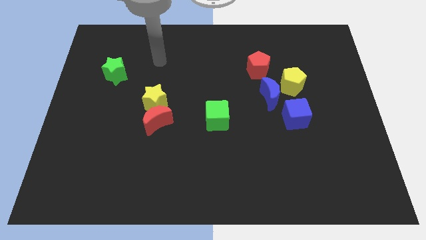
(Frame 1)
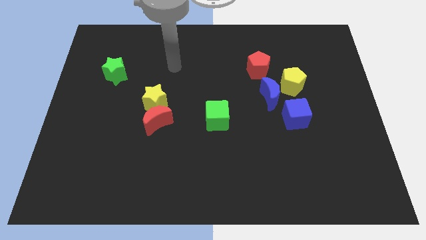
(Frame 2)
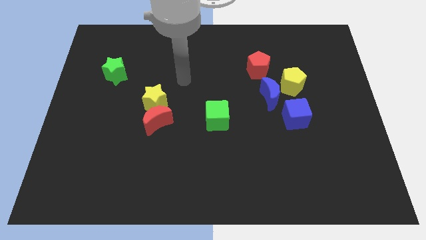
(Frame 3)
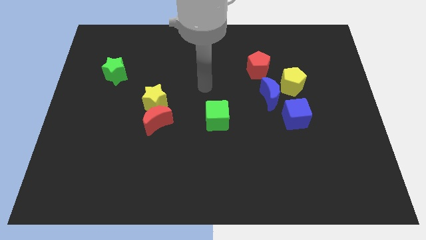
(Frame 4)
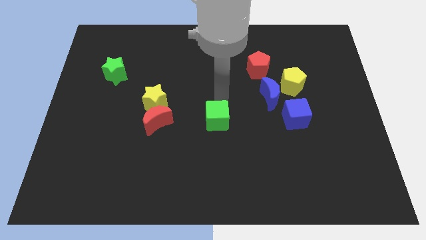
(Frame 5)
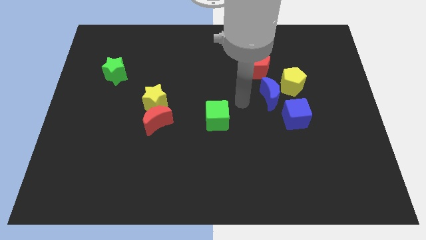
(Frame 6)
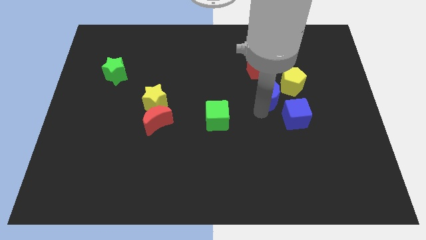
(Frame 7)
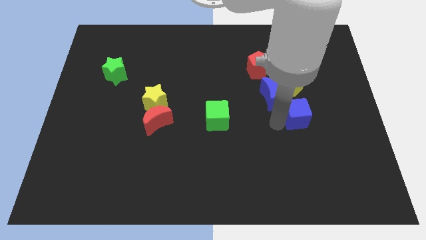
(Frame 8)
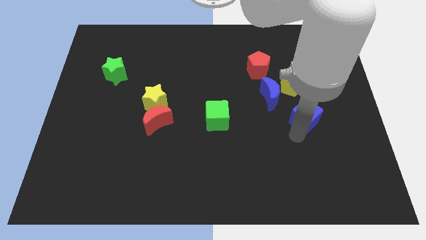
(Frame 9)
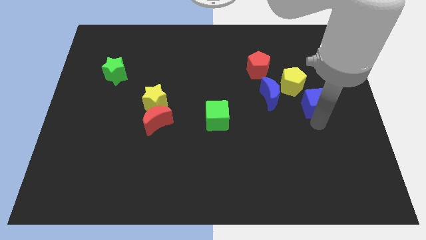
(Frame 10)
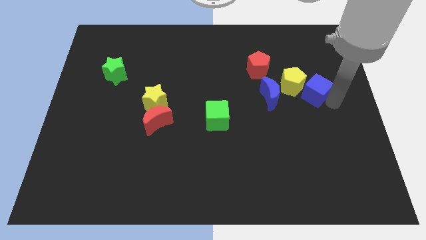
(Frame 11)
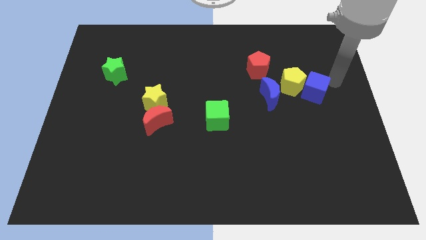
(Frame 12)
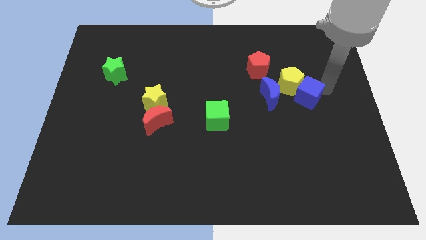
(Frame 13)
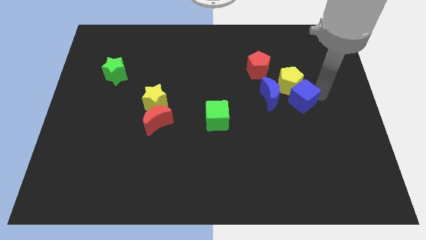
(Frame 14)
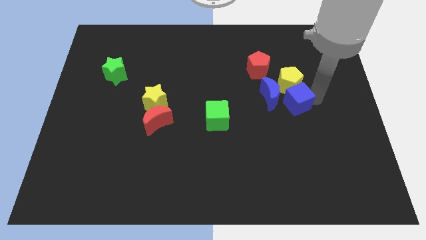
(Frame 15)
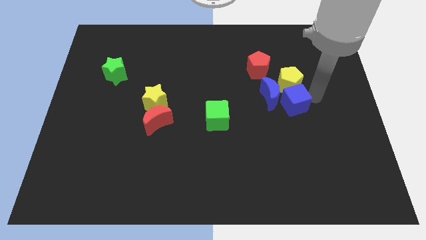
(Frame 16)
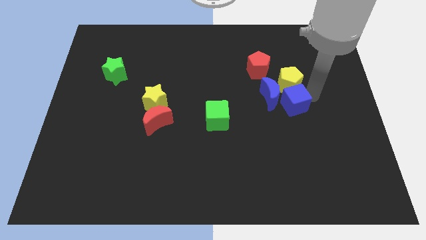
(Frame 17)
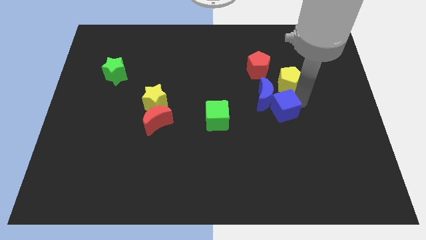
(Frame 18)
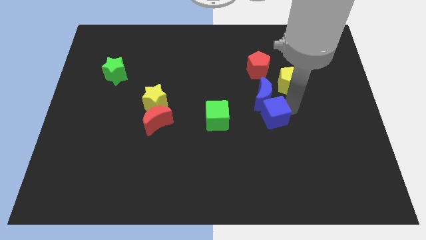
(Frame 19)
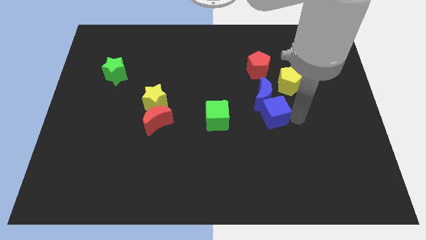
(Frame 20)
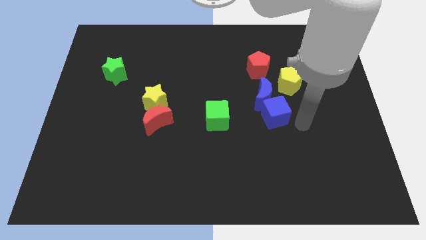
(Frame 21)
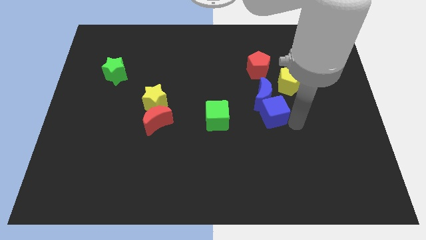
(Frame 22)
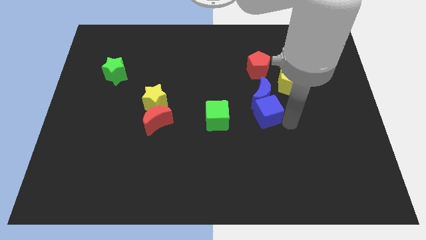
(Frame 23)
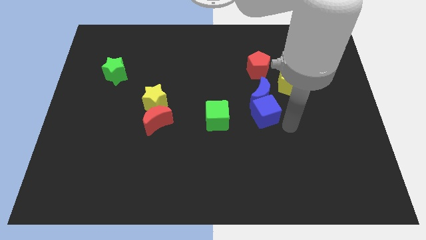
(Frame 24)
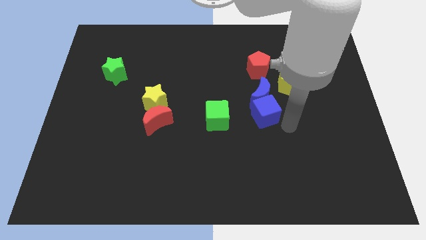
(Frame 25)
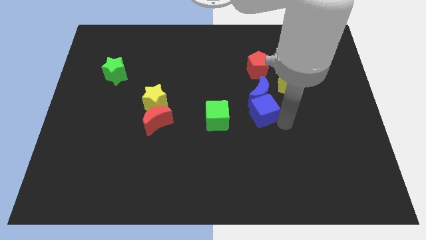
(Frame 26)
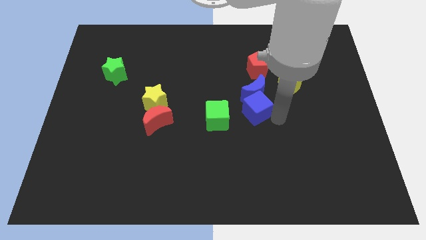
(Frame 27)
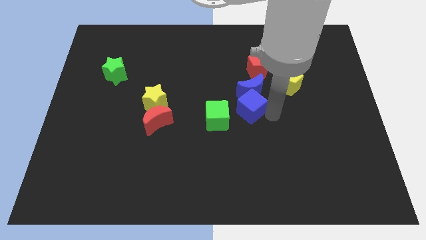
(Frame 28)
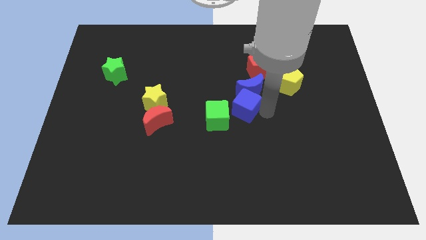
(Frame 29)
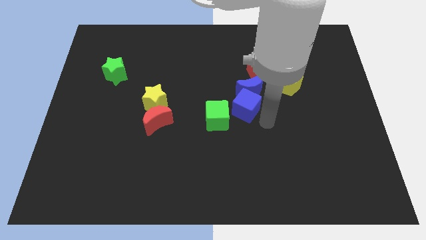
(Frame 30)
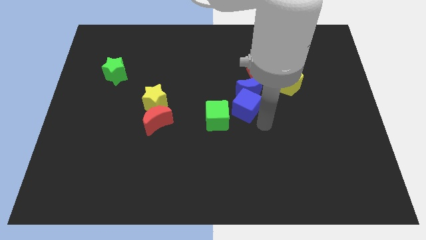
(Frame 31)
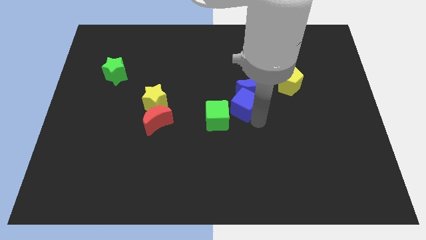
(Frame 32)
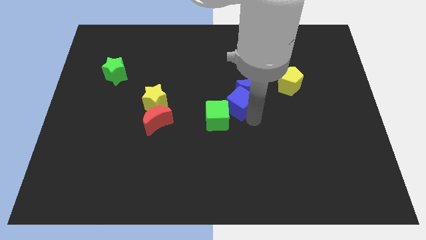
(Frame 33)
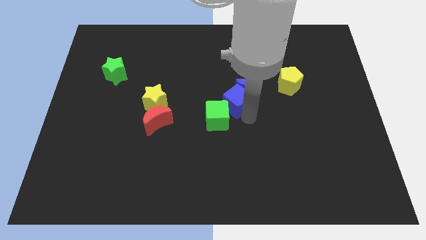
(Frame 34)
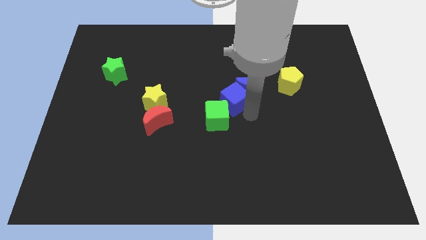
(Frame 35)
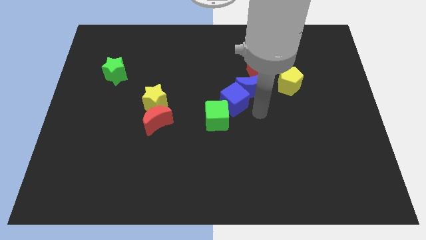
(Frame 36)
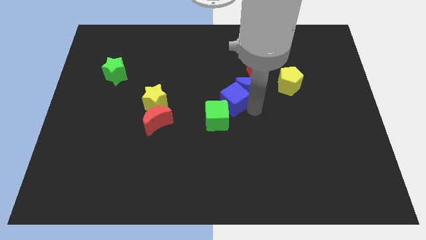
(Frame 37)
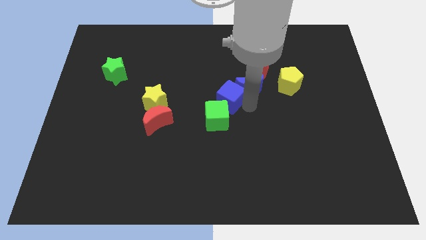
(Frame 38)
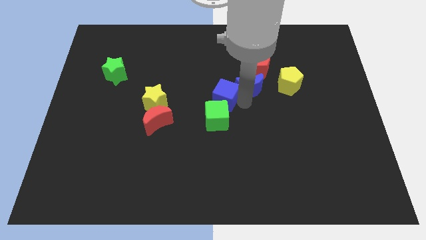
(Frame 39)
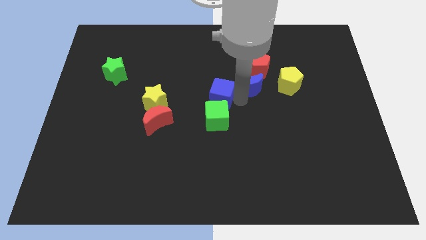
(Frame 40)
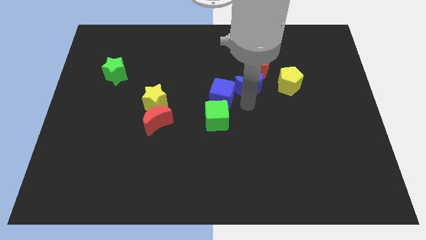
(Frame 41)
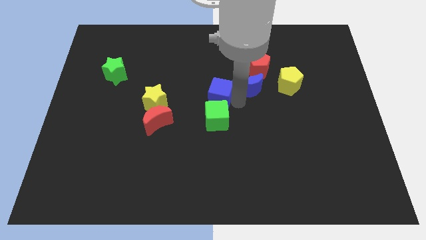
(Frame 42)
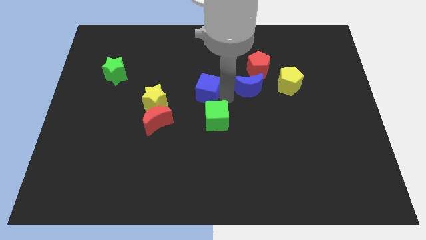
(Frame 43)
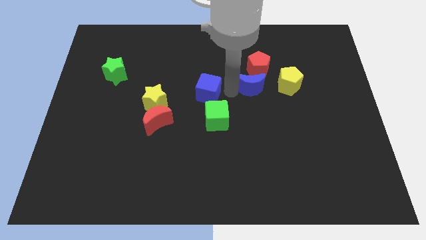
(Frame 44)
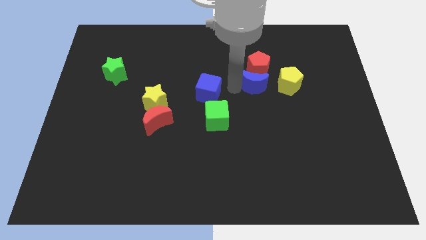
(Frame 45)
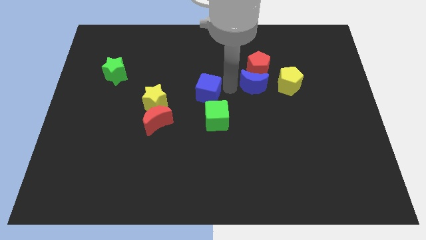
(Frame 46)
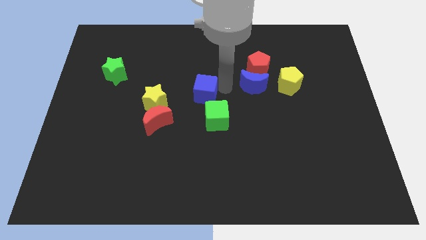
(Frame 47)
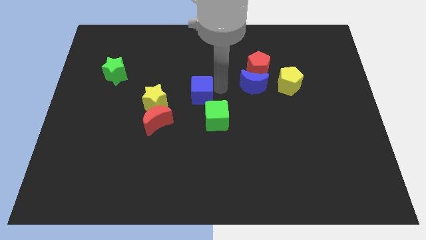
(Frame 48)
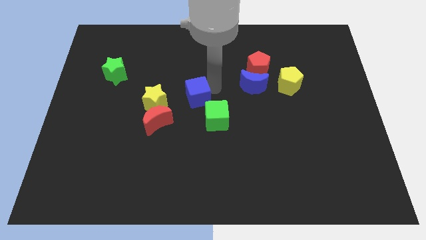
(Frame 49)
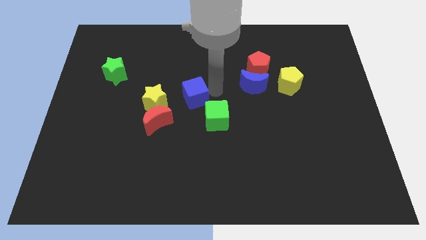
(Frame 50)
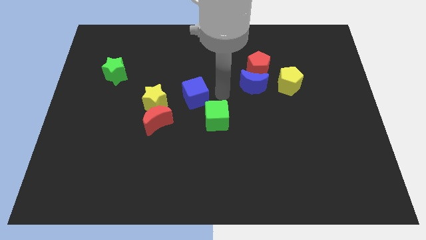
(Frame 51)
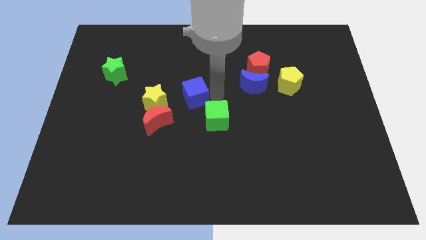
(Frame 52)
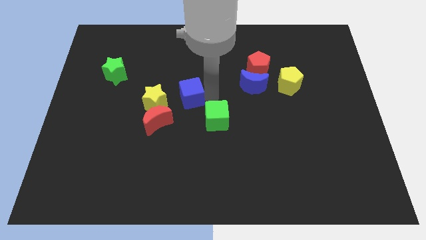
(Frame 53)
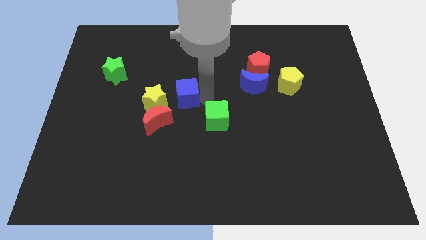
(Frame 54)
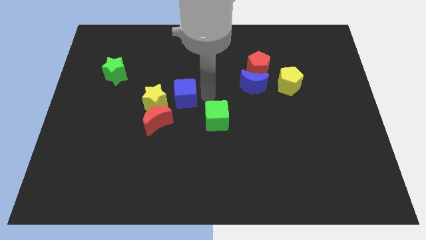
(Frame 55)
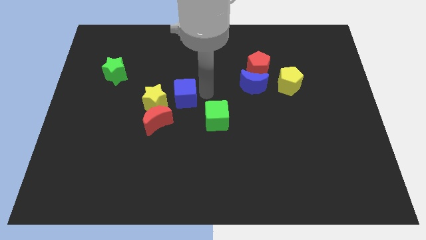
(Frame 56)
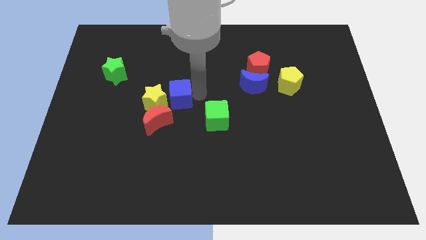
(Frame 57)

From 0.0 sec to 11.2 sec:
put the blue cube towards the yellow star

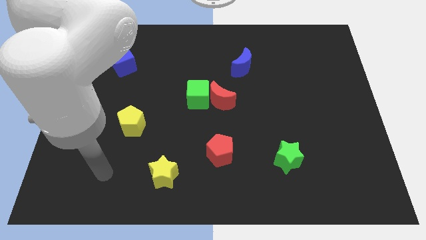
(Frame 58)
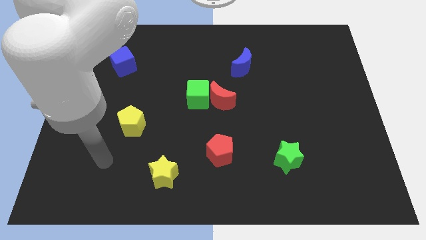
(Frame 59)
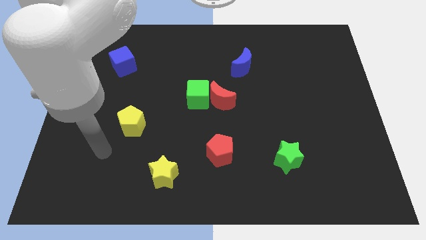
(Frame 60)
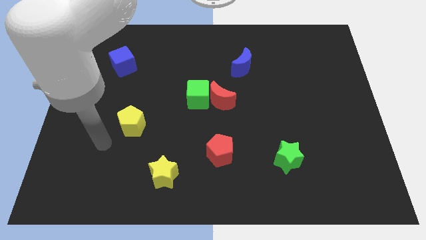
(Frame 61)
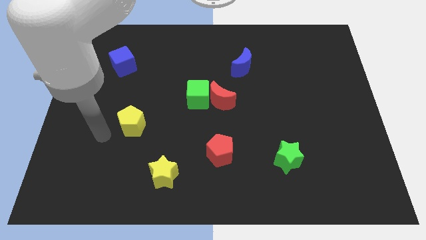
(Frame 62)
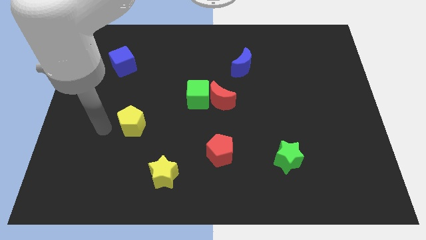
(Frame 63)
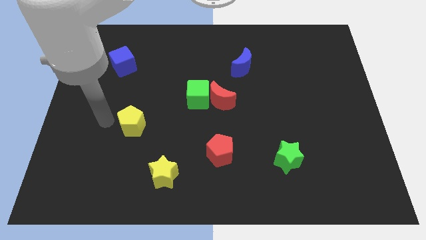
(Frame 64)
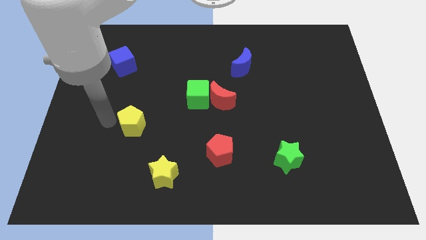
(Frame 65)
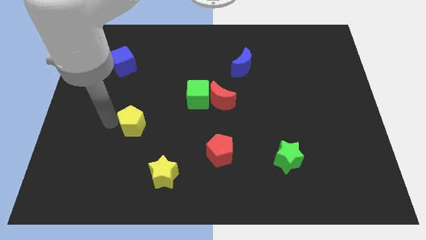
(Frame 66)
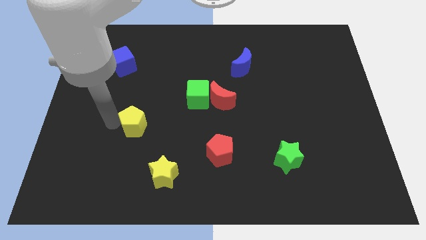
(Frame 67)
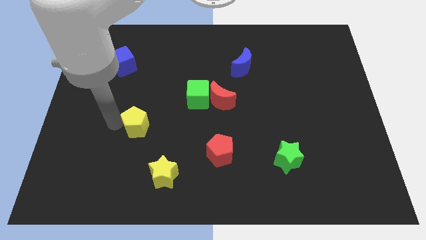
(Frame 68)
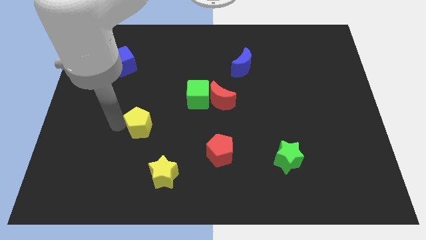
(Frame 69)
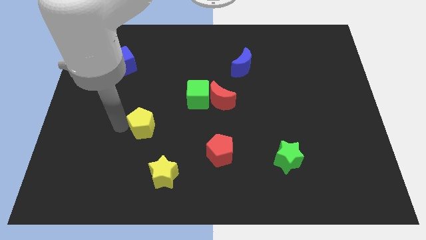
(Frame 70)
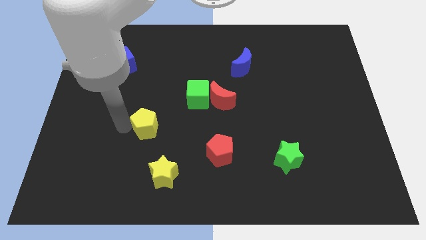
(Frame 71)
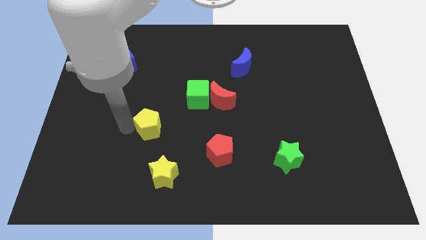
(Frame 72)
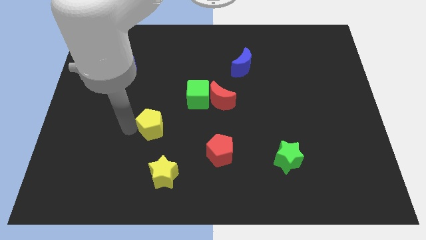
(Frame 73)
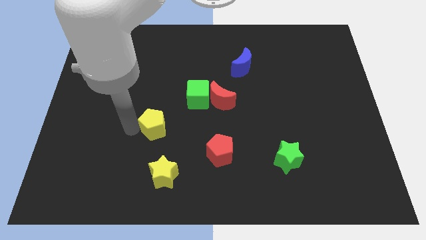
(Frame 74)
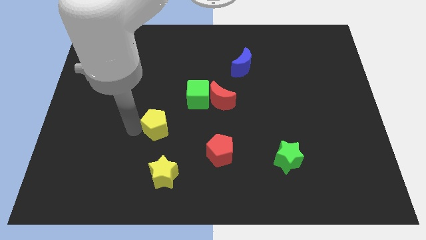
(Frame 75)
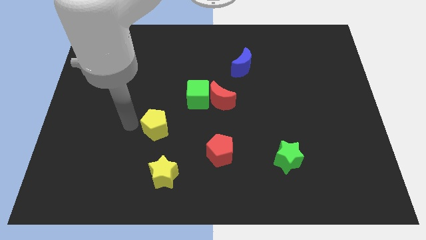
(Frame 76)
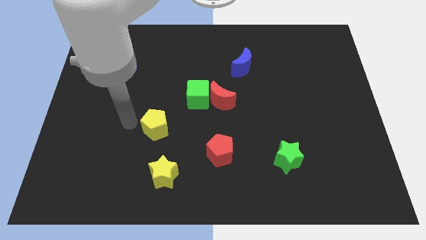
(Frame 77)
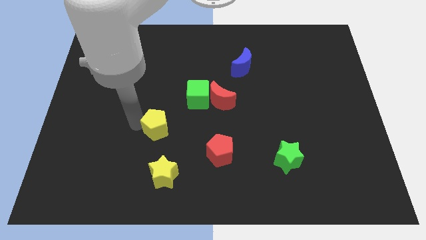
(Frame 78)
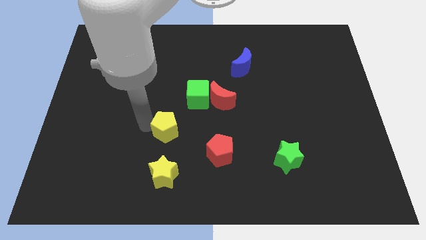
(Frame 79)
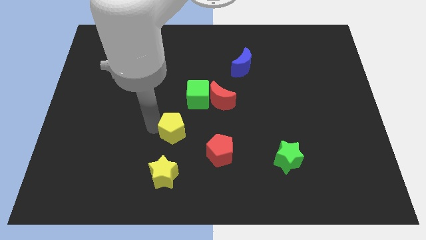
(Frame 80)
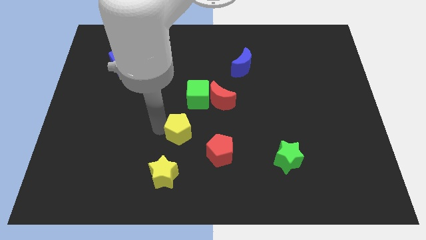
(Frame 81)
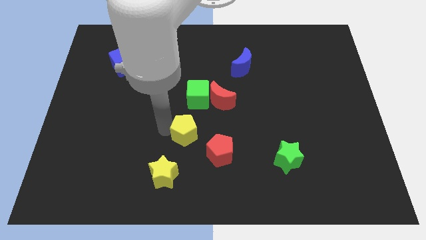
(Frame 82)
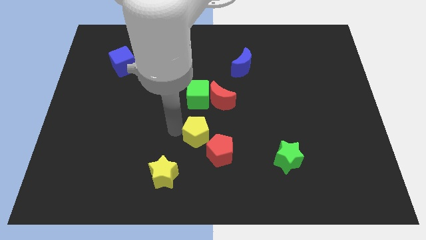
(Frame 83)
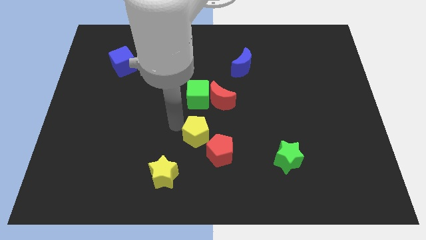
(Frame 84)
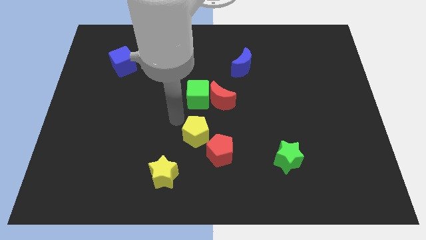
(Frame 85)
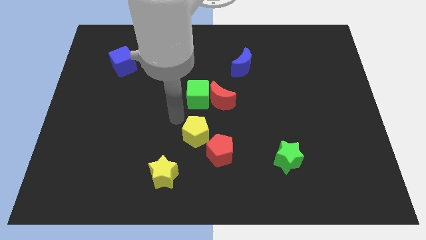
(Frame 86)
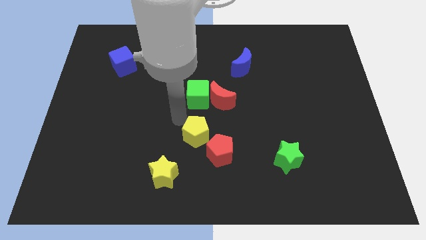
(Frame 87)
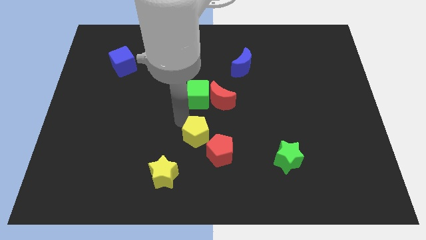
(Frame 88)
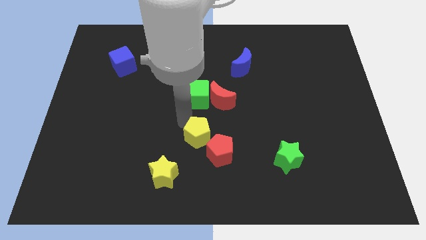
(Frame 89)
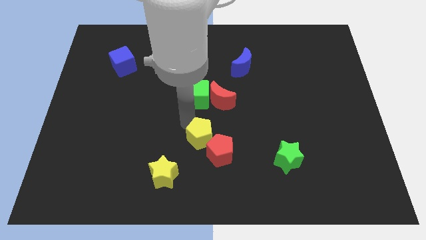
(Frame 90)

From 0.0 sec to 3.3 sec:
put the yellow pentagon close to the red pentagon
